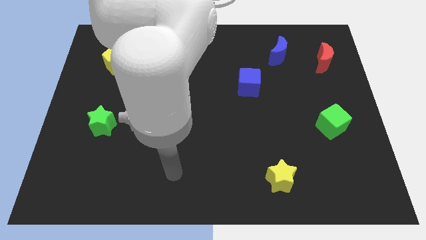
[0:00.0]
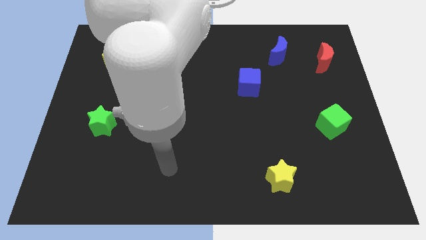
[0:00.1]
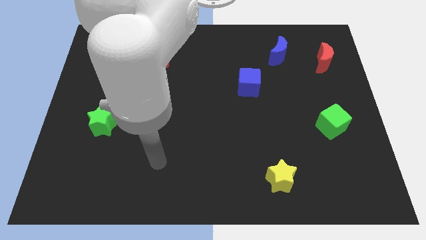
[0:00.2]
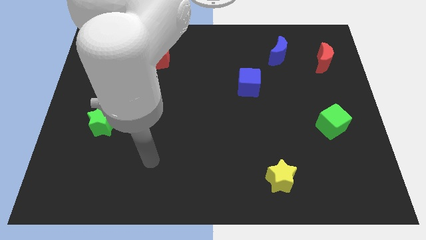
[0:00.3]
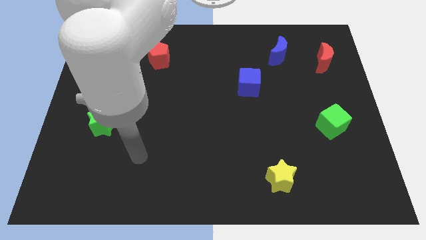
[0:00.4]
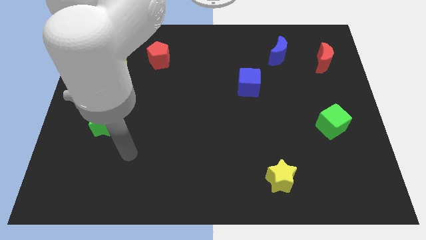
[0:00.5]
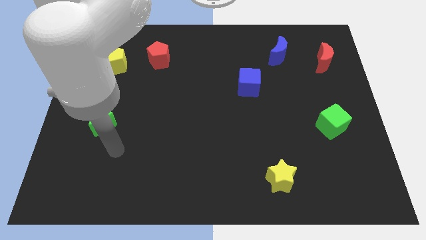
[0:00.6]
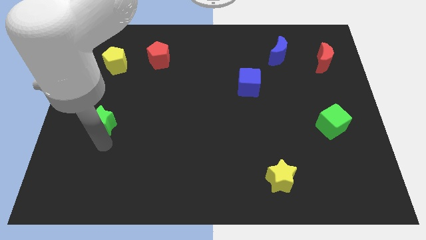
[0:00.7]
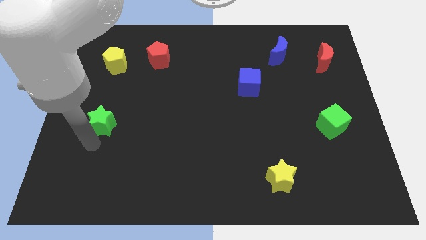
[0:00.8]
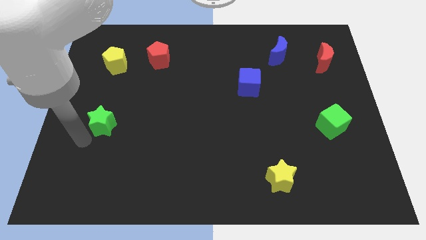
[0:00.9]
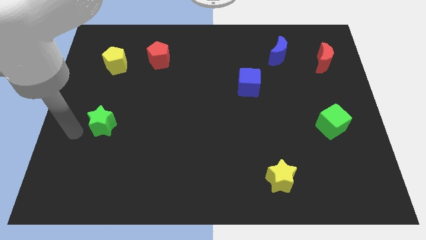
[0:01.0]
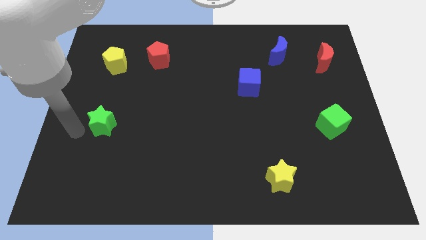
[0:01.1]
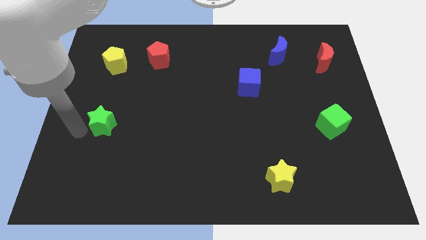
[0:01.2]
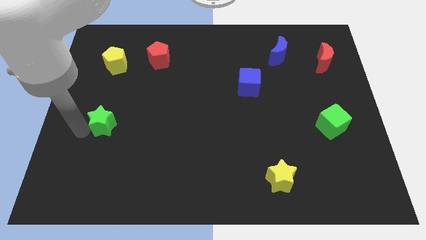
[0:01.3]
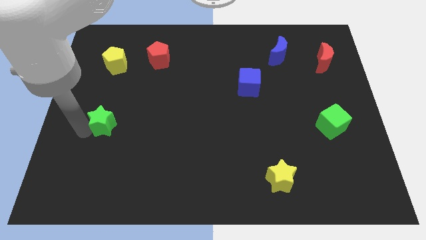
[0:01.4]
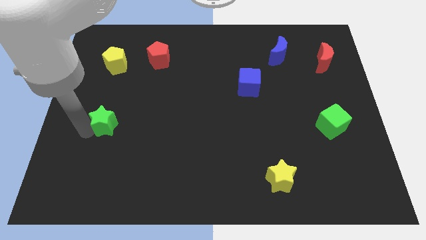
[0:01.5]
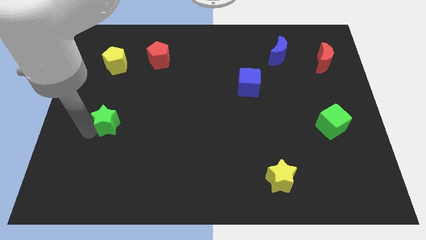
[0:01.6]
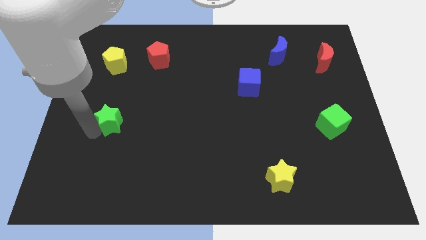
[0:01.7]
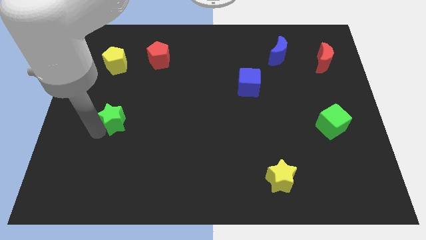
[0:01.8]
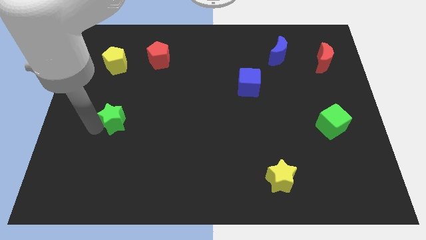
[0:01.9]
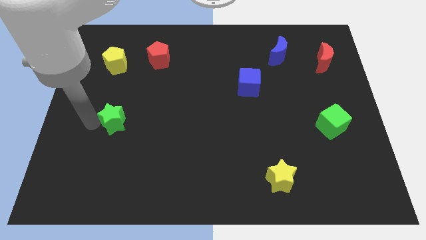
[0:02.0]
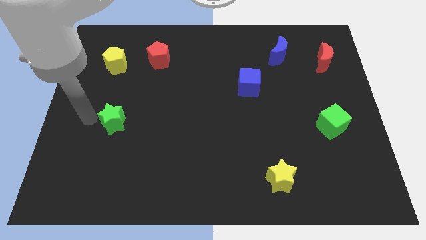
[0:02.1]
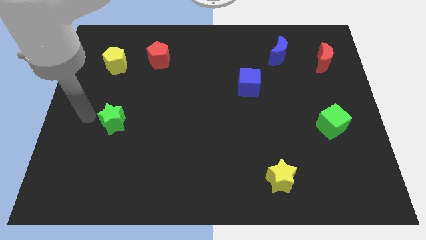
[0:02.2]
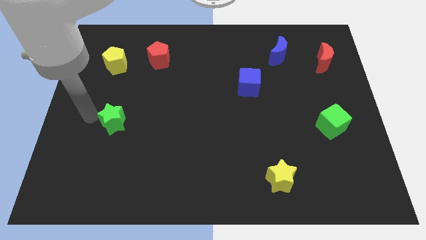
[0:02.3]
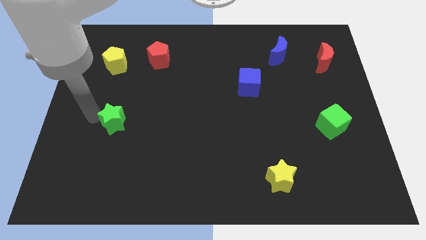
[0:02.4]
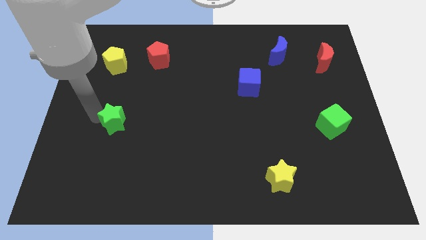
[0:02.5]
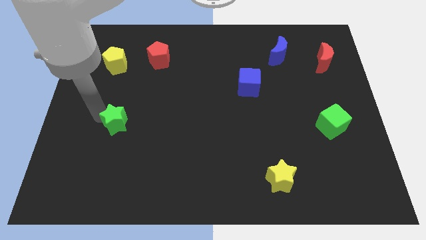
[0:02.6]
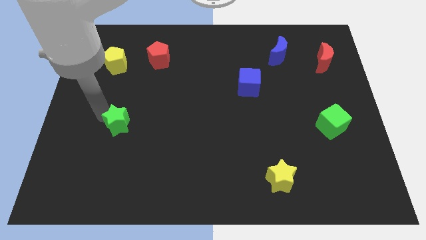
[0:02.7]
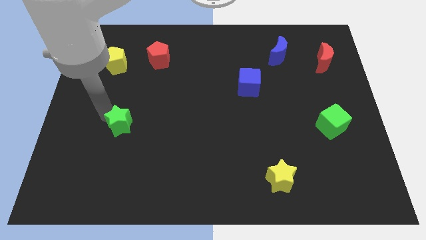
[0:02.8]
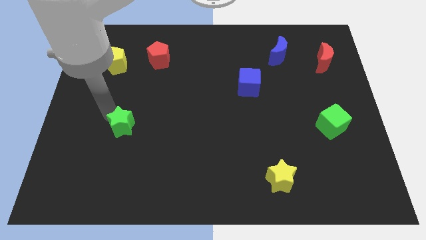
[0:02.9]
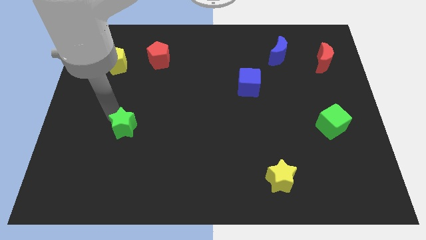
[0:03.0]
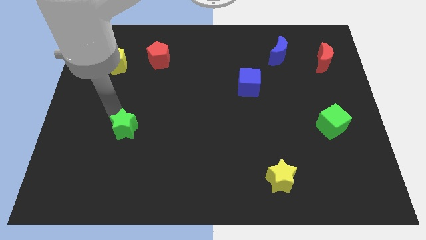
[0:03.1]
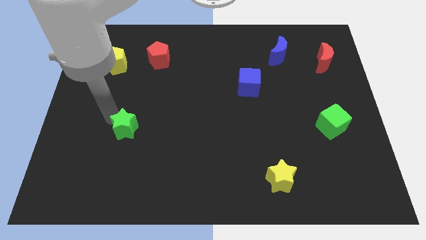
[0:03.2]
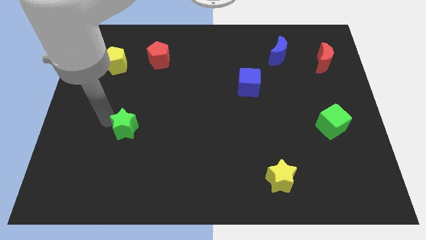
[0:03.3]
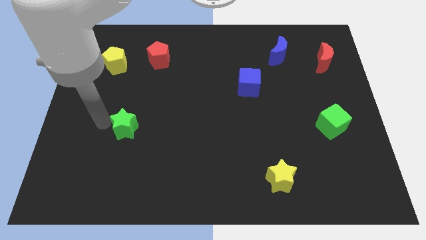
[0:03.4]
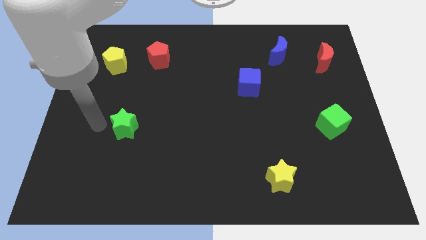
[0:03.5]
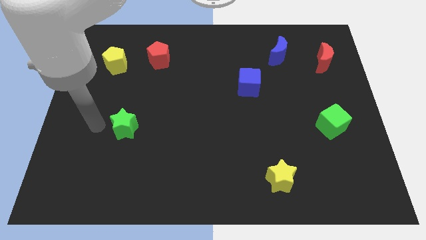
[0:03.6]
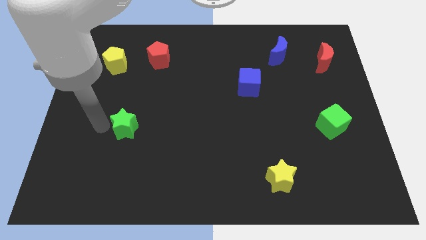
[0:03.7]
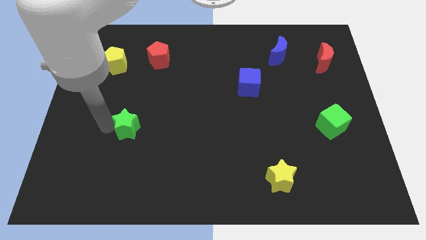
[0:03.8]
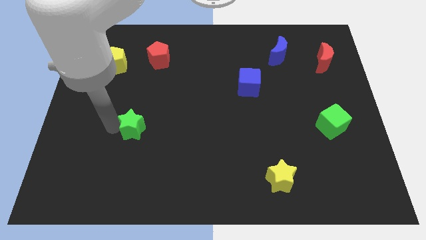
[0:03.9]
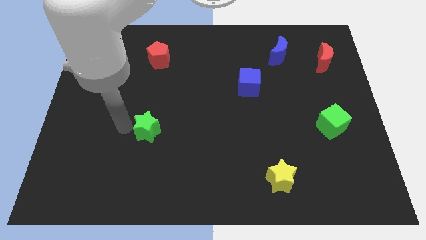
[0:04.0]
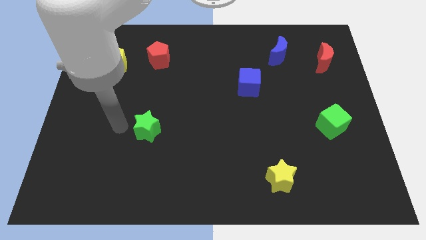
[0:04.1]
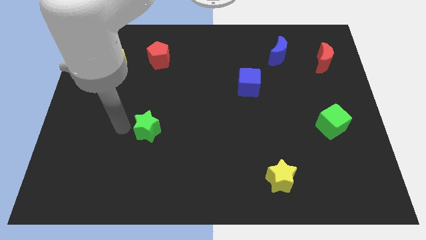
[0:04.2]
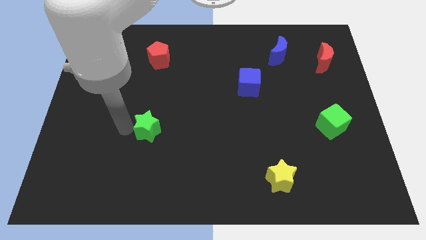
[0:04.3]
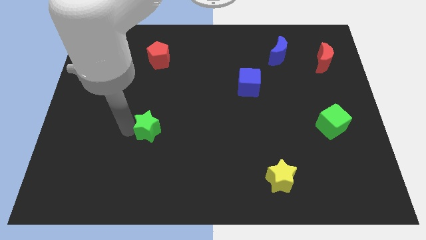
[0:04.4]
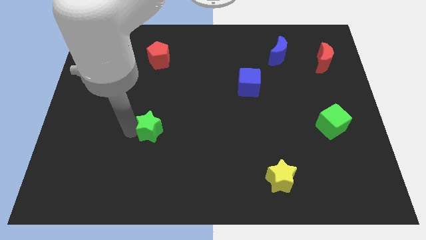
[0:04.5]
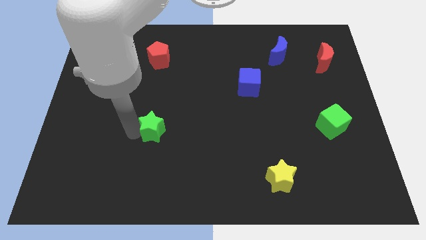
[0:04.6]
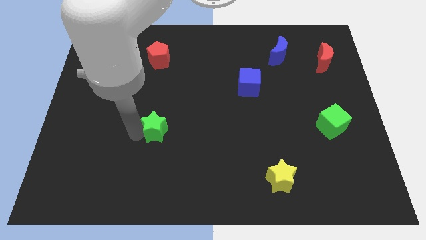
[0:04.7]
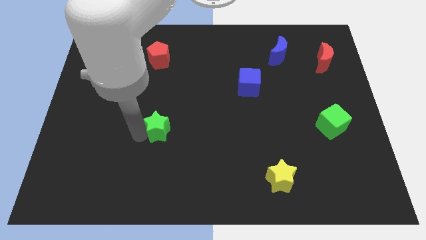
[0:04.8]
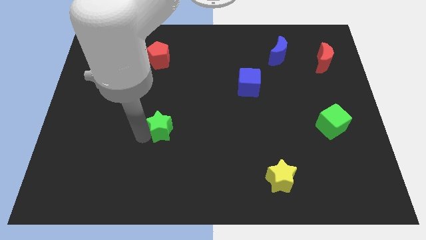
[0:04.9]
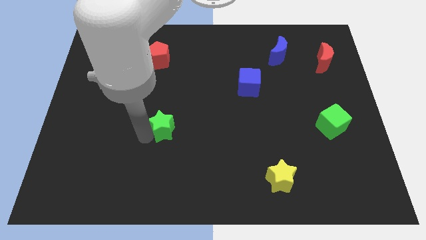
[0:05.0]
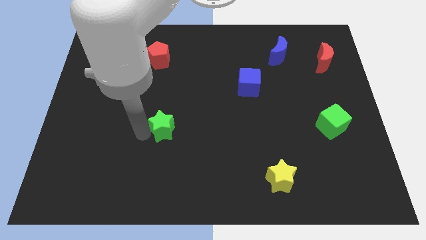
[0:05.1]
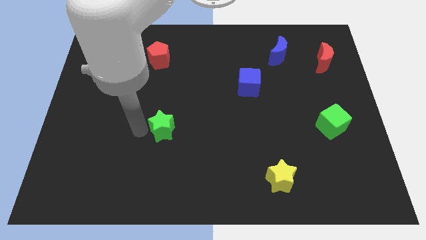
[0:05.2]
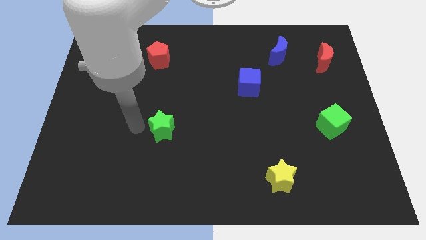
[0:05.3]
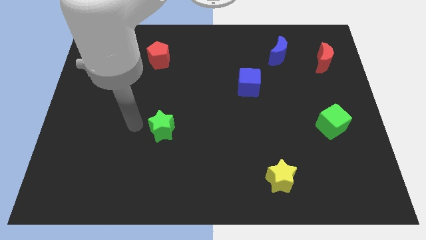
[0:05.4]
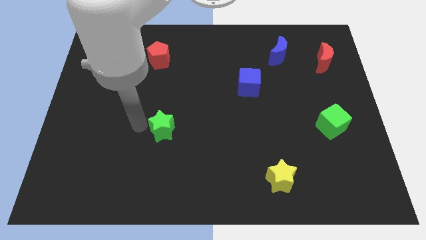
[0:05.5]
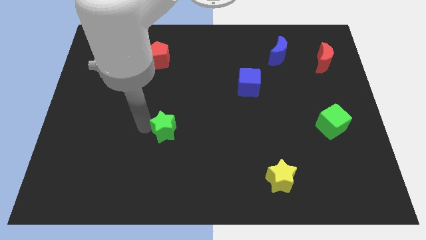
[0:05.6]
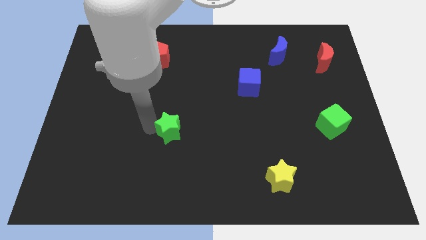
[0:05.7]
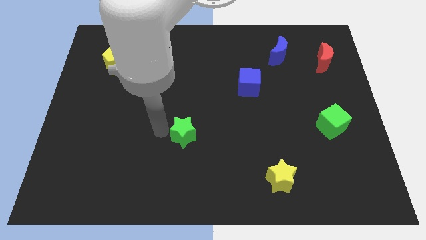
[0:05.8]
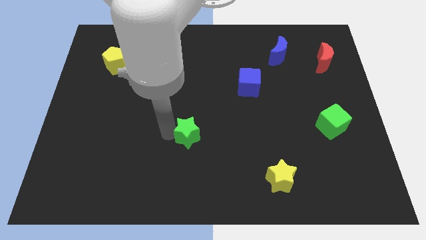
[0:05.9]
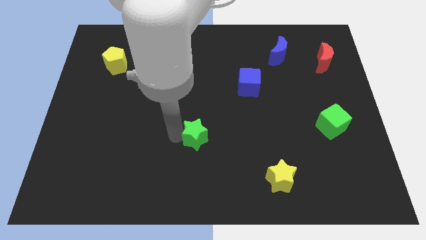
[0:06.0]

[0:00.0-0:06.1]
move the green star to the right

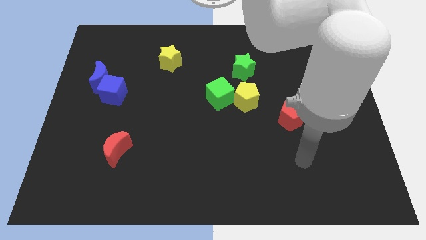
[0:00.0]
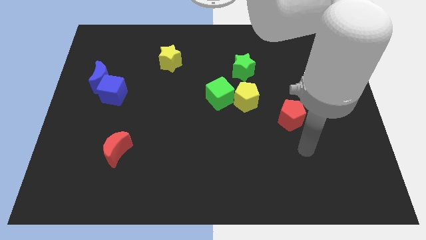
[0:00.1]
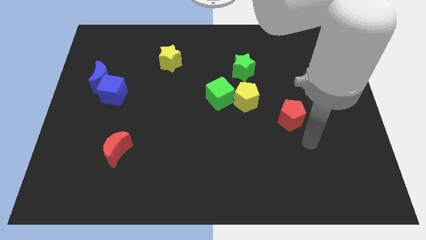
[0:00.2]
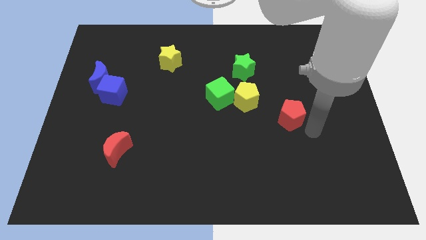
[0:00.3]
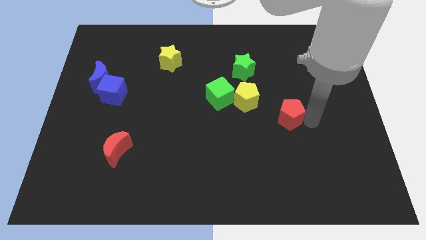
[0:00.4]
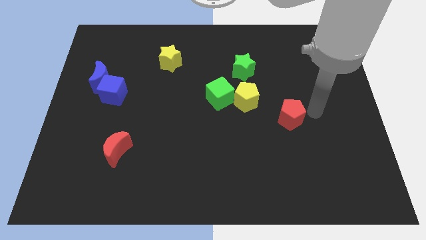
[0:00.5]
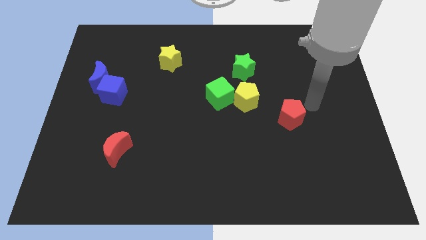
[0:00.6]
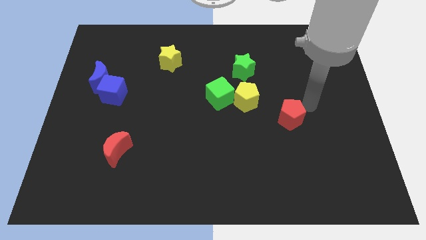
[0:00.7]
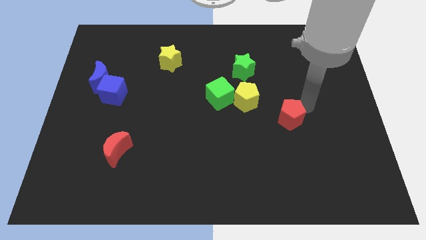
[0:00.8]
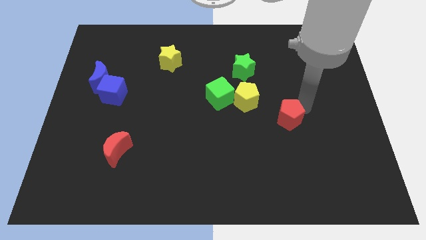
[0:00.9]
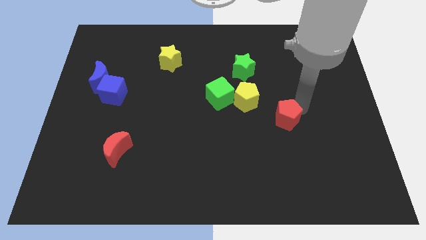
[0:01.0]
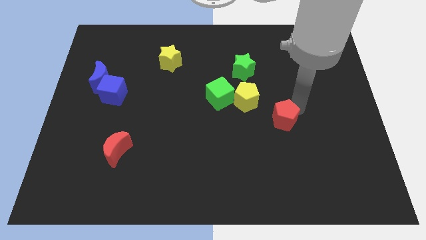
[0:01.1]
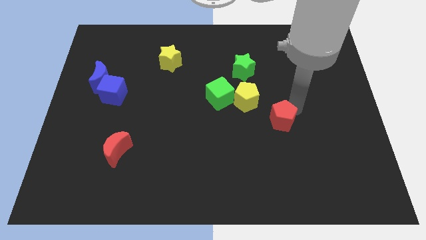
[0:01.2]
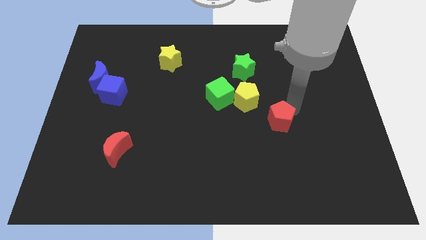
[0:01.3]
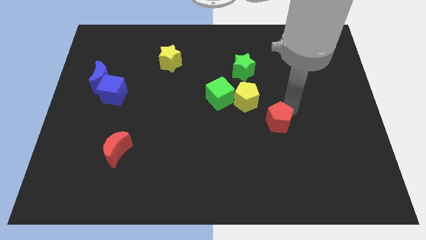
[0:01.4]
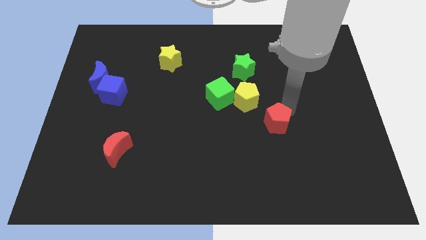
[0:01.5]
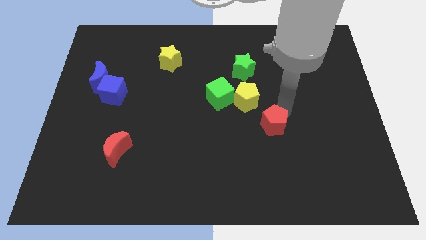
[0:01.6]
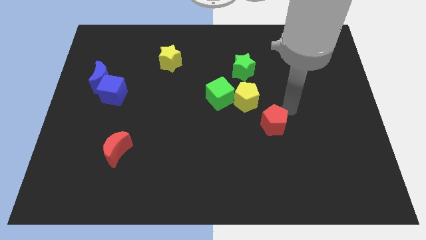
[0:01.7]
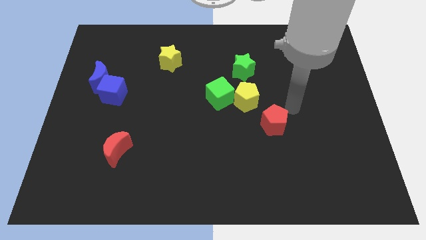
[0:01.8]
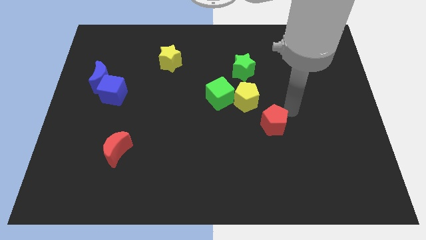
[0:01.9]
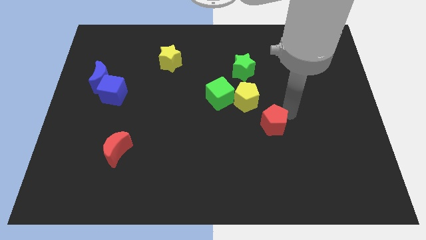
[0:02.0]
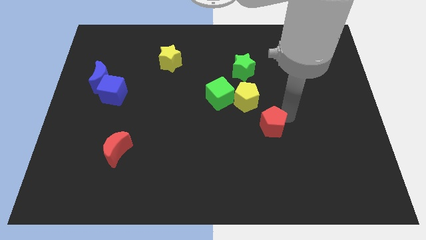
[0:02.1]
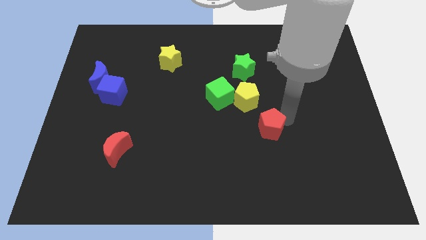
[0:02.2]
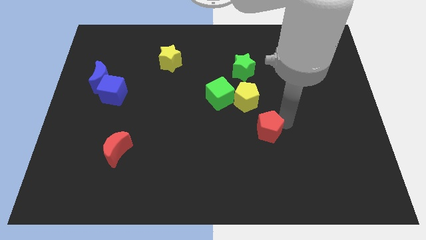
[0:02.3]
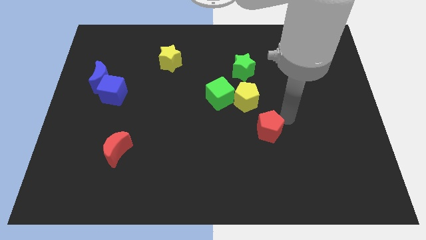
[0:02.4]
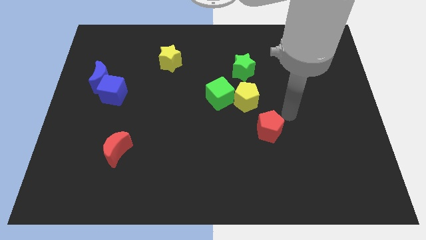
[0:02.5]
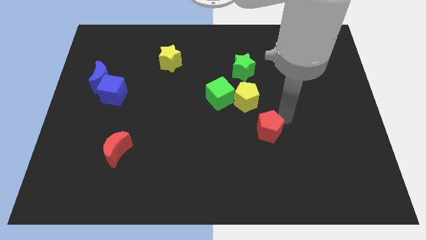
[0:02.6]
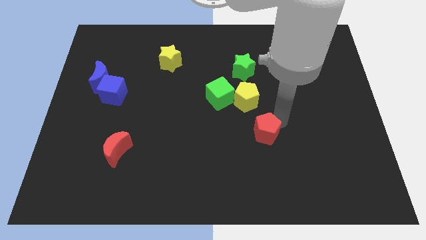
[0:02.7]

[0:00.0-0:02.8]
slightly slide the red pentagon downwards and to the left diagonally
